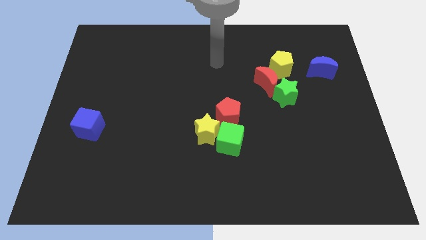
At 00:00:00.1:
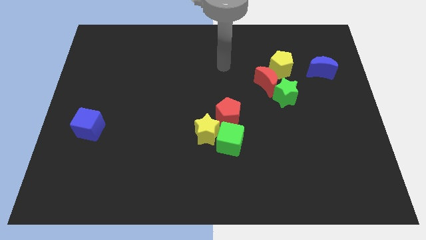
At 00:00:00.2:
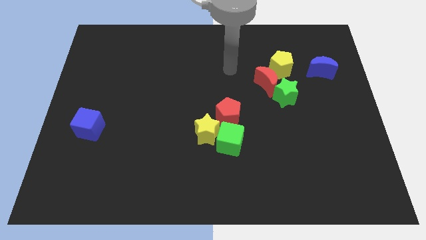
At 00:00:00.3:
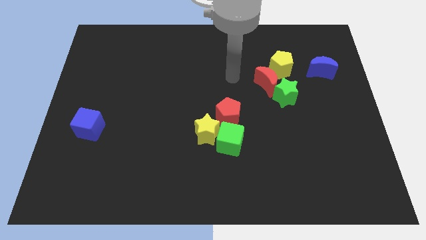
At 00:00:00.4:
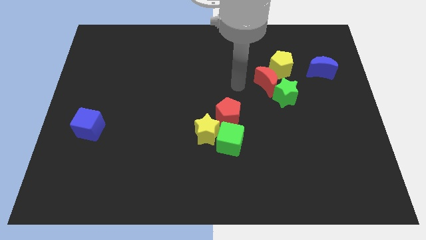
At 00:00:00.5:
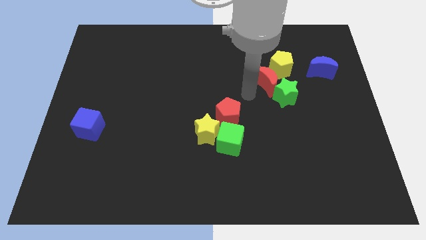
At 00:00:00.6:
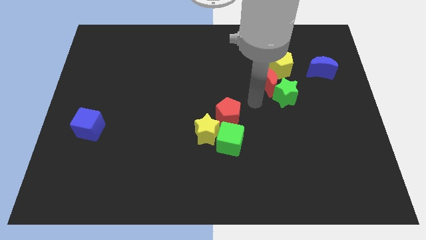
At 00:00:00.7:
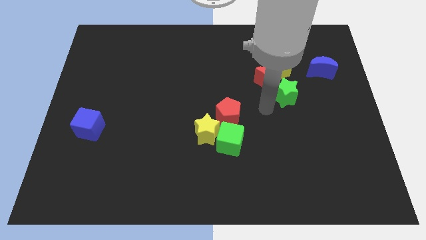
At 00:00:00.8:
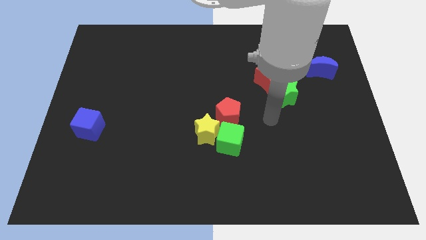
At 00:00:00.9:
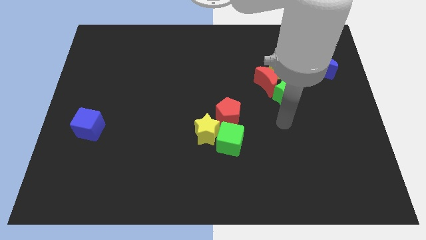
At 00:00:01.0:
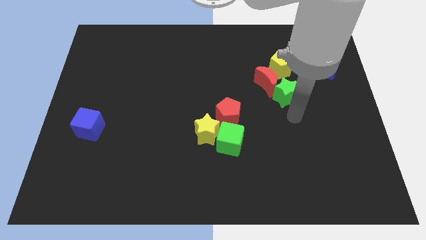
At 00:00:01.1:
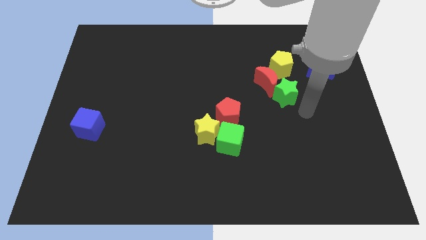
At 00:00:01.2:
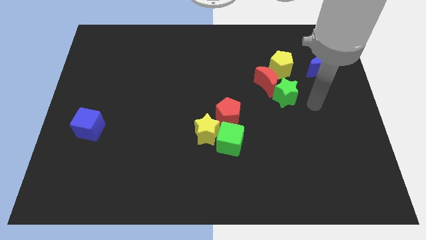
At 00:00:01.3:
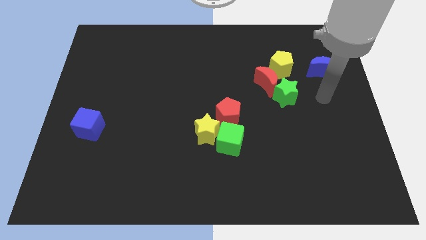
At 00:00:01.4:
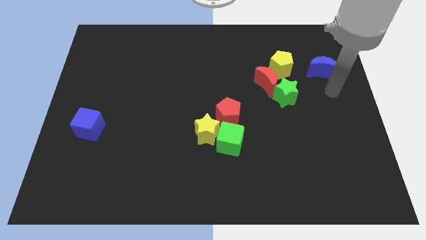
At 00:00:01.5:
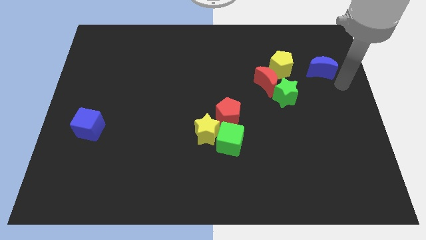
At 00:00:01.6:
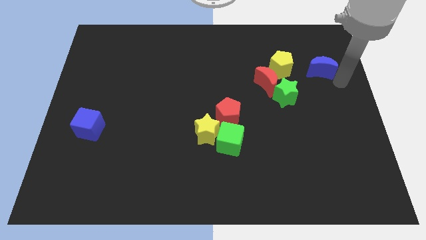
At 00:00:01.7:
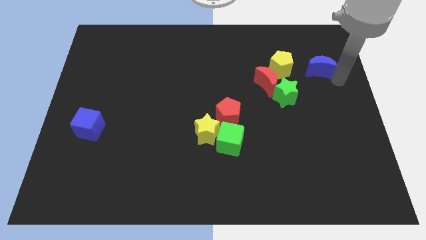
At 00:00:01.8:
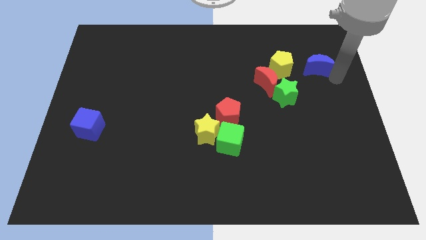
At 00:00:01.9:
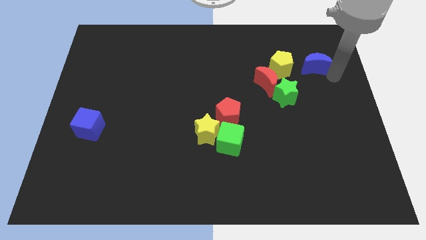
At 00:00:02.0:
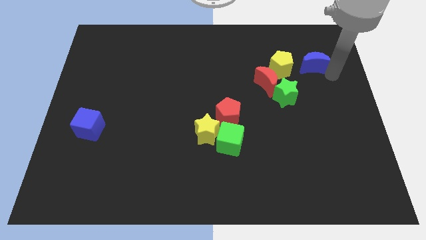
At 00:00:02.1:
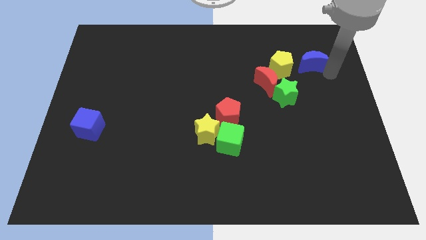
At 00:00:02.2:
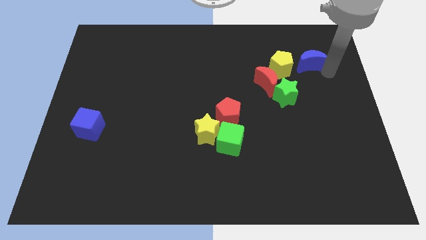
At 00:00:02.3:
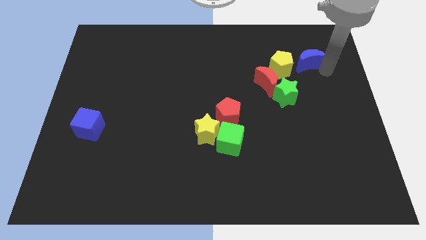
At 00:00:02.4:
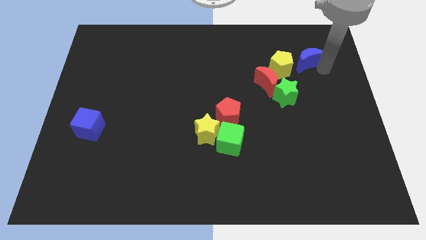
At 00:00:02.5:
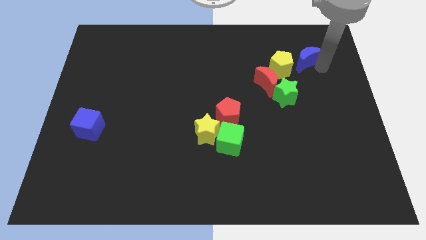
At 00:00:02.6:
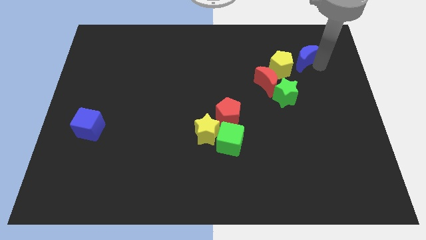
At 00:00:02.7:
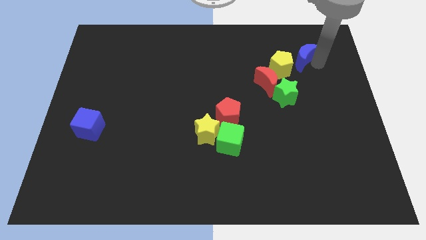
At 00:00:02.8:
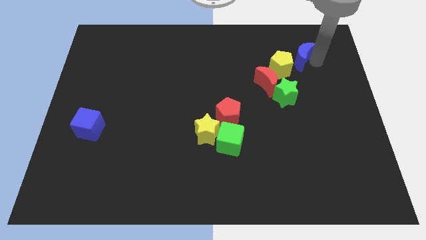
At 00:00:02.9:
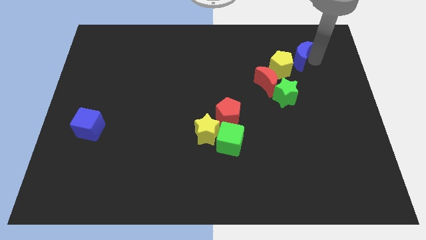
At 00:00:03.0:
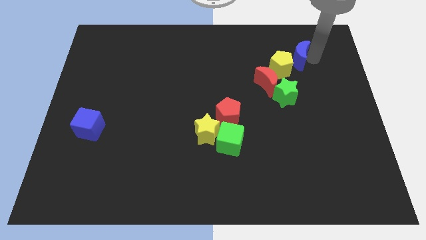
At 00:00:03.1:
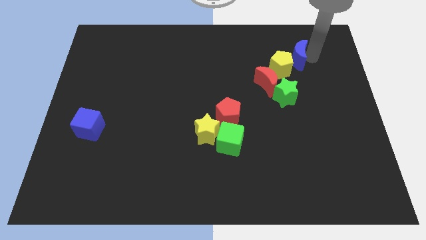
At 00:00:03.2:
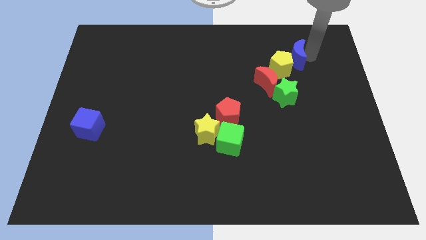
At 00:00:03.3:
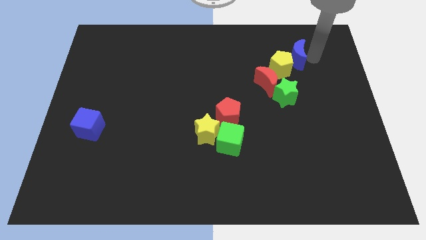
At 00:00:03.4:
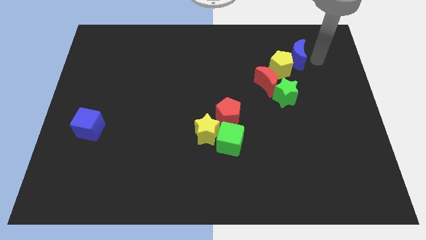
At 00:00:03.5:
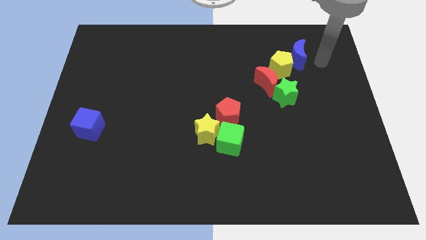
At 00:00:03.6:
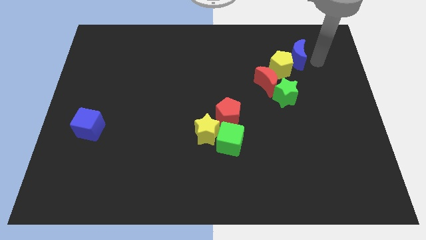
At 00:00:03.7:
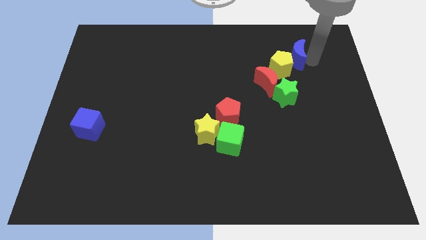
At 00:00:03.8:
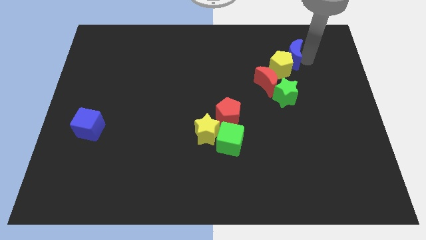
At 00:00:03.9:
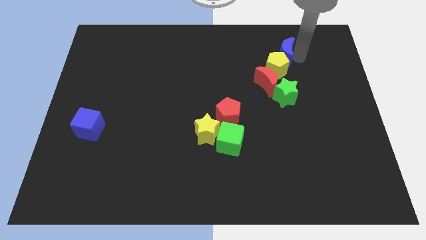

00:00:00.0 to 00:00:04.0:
slightly push the blue moon left

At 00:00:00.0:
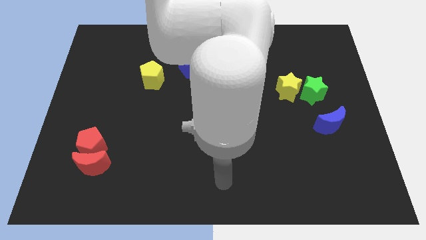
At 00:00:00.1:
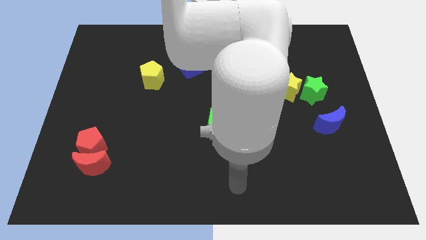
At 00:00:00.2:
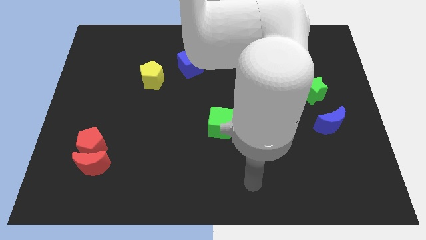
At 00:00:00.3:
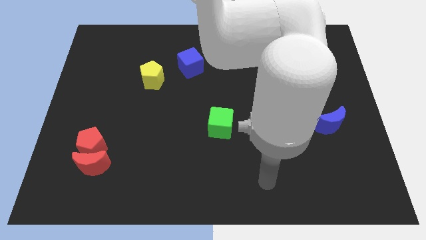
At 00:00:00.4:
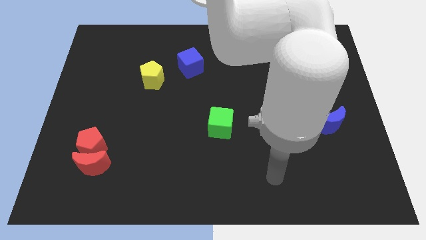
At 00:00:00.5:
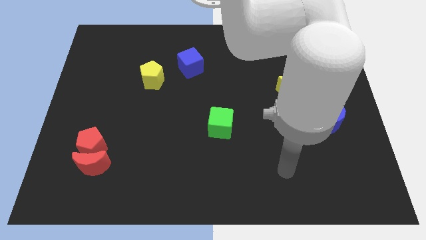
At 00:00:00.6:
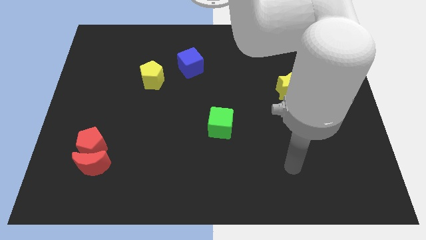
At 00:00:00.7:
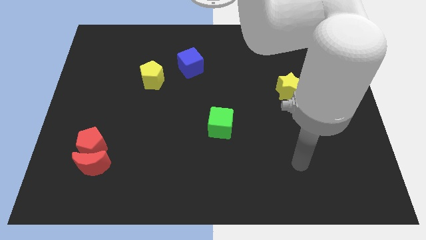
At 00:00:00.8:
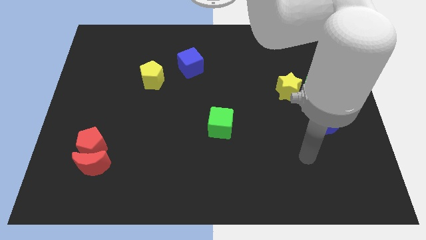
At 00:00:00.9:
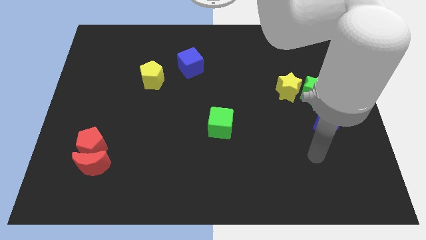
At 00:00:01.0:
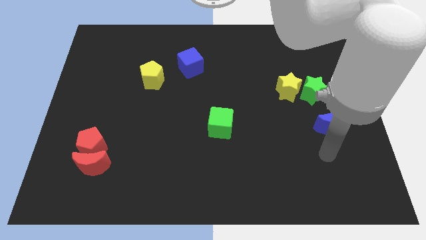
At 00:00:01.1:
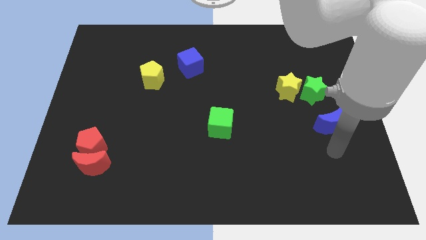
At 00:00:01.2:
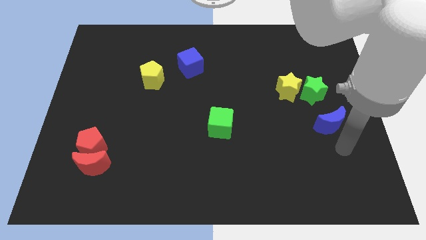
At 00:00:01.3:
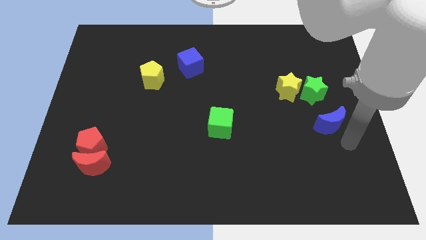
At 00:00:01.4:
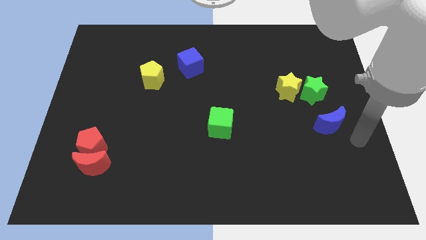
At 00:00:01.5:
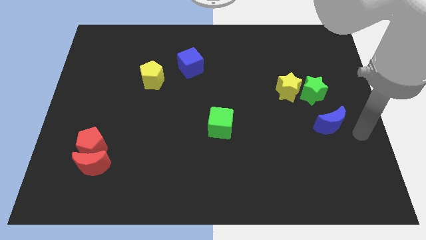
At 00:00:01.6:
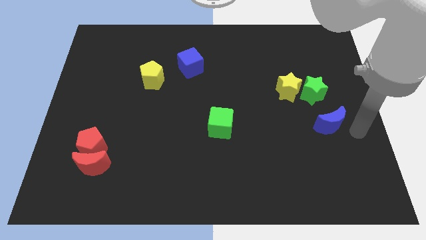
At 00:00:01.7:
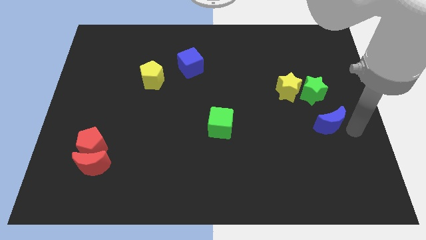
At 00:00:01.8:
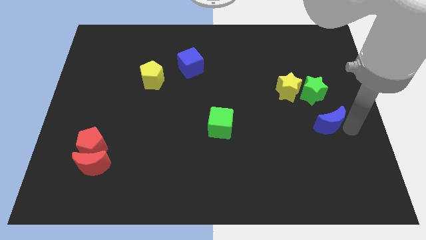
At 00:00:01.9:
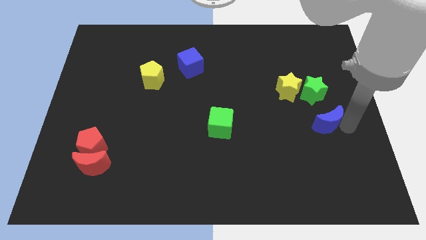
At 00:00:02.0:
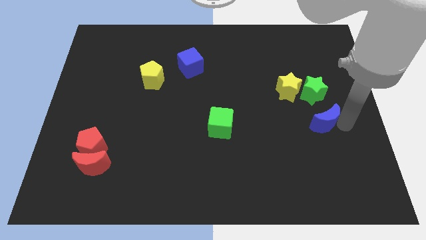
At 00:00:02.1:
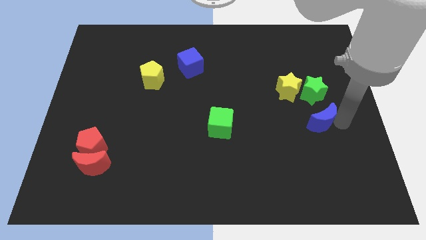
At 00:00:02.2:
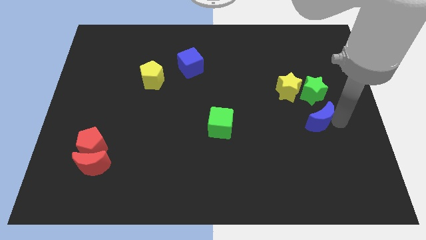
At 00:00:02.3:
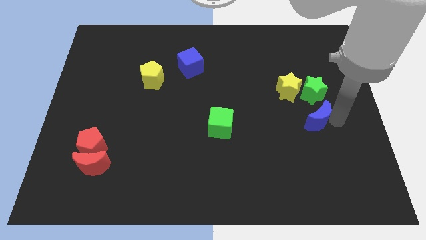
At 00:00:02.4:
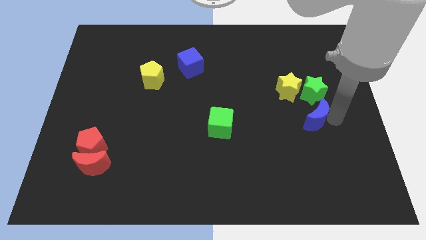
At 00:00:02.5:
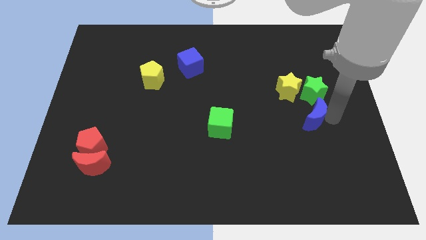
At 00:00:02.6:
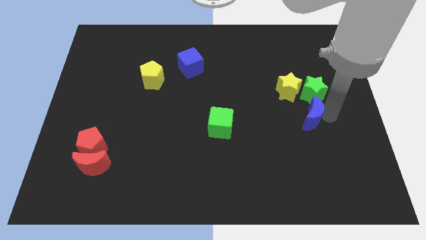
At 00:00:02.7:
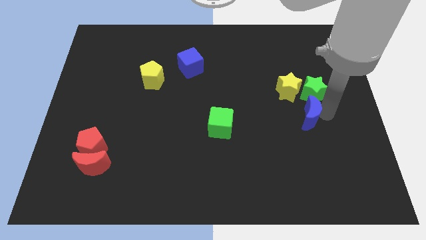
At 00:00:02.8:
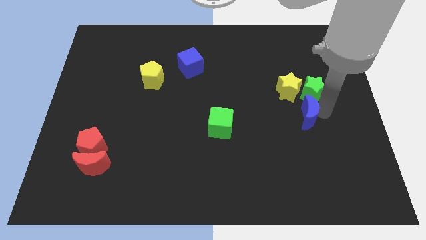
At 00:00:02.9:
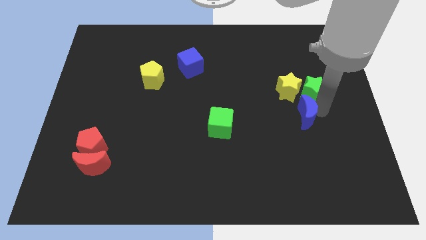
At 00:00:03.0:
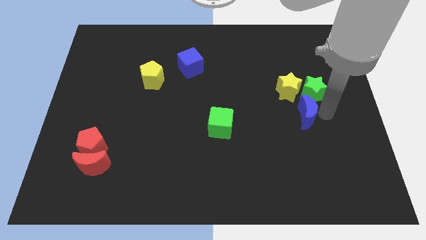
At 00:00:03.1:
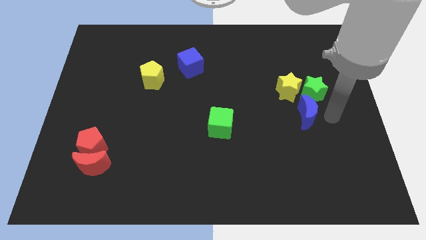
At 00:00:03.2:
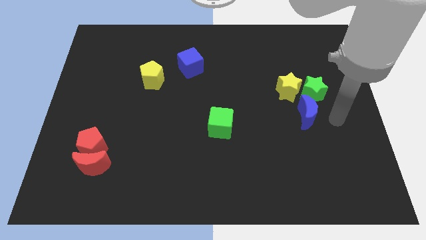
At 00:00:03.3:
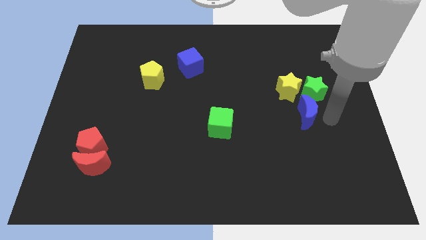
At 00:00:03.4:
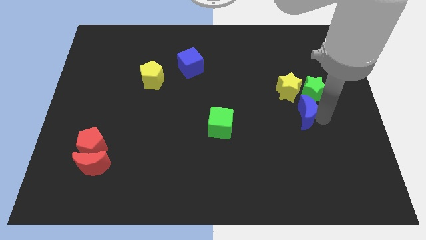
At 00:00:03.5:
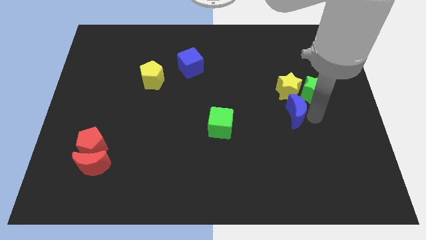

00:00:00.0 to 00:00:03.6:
push the blue moon diagonally up and to the left a bit

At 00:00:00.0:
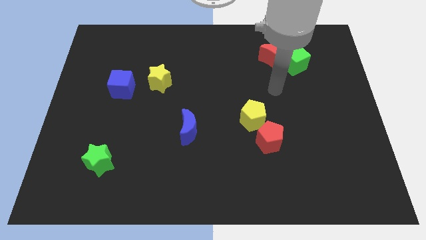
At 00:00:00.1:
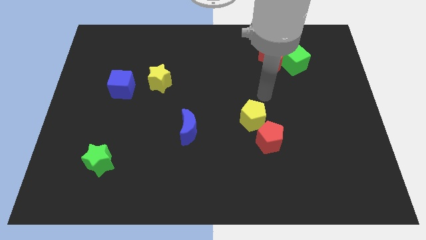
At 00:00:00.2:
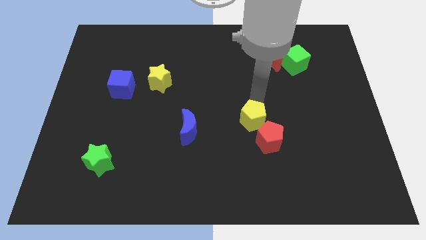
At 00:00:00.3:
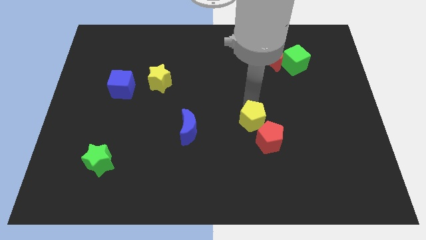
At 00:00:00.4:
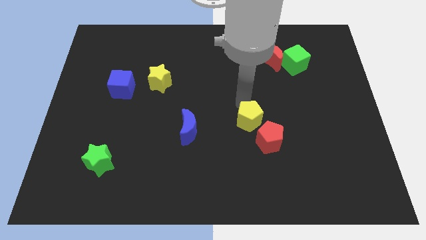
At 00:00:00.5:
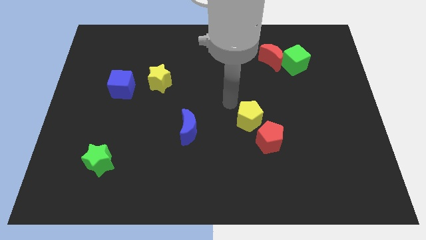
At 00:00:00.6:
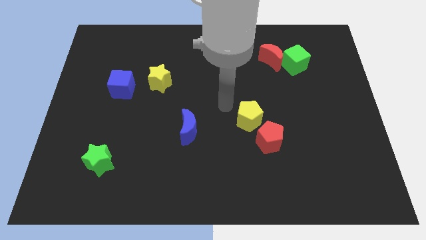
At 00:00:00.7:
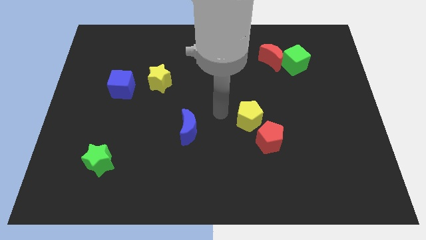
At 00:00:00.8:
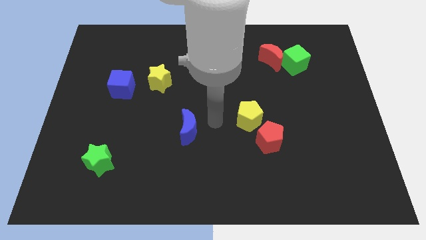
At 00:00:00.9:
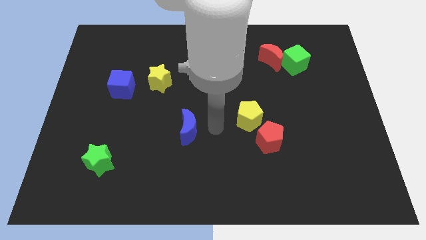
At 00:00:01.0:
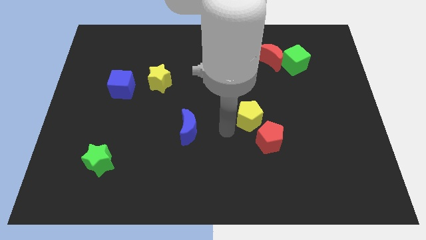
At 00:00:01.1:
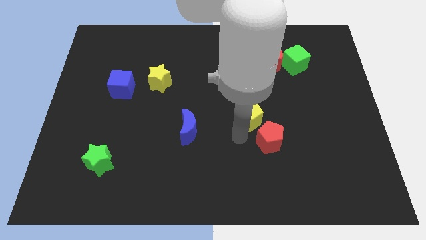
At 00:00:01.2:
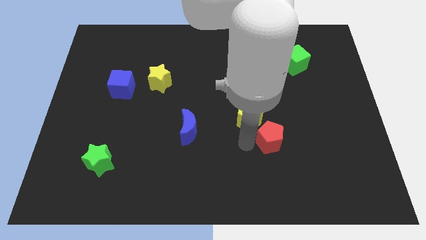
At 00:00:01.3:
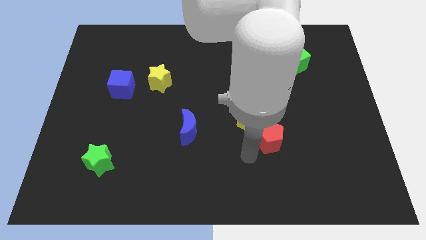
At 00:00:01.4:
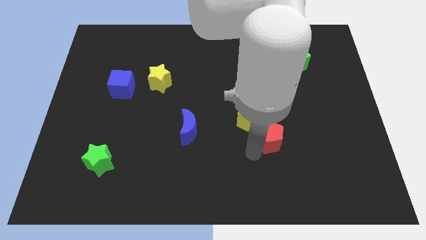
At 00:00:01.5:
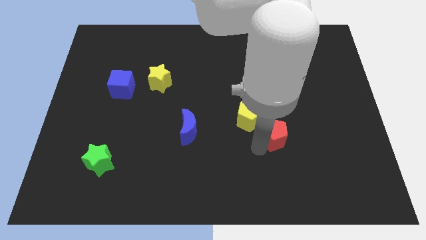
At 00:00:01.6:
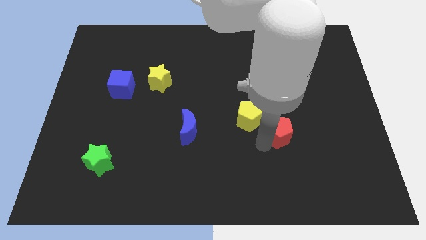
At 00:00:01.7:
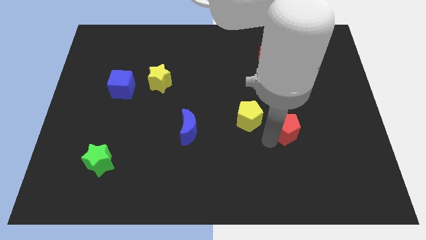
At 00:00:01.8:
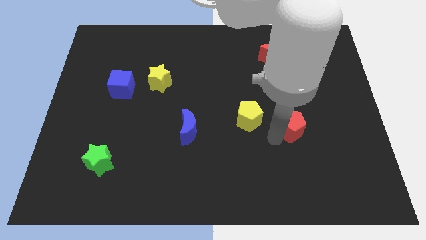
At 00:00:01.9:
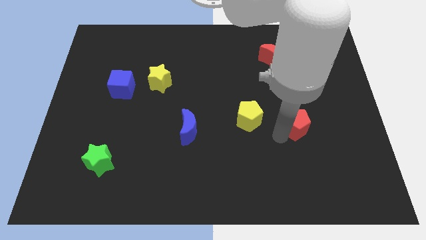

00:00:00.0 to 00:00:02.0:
move the red pentagon somewhat diagonally up and to the right
